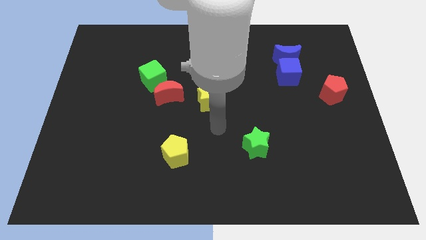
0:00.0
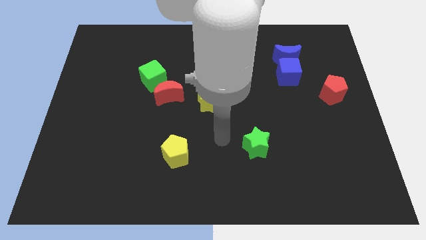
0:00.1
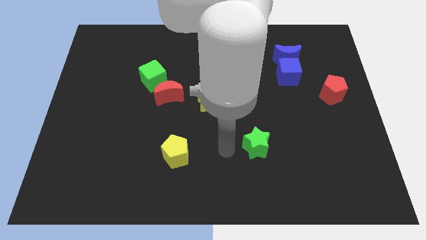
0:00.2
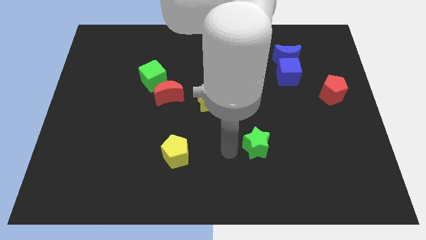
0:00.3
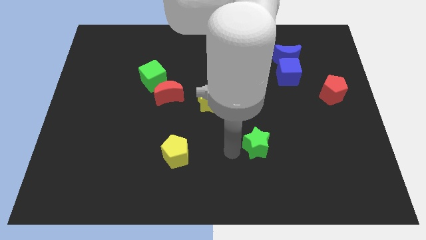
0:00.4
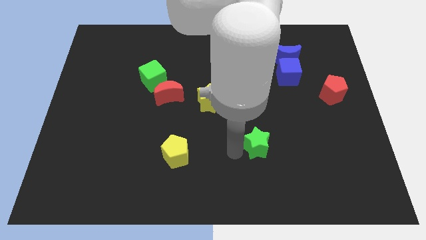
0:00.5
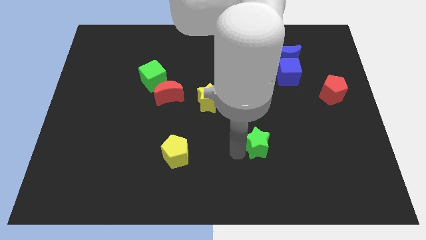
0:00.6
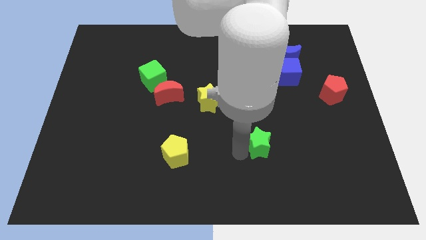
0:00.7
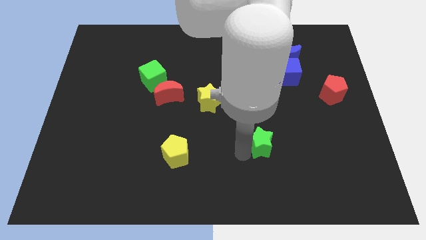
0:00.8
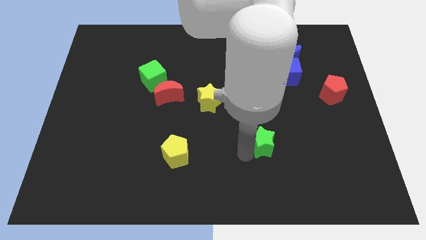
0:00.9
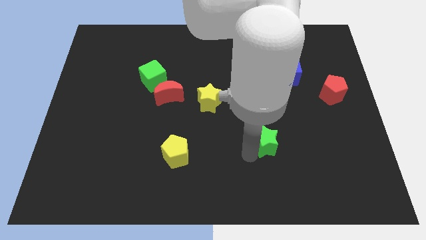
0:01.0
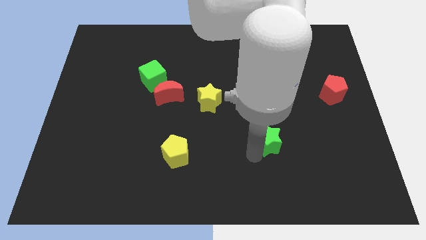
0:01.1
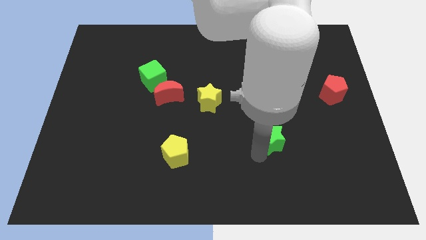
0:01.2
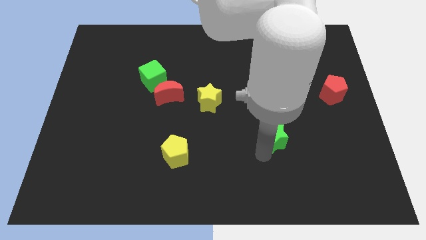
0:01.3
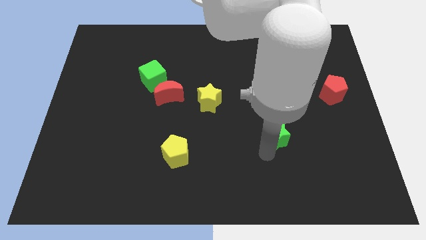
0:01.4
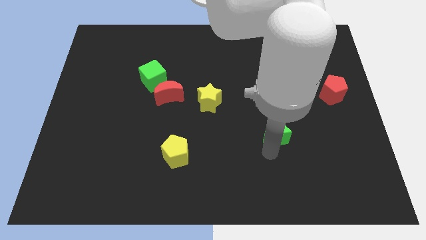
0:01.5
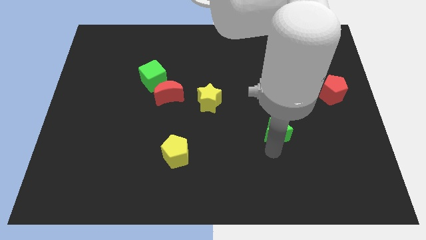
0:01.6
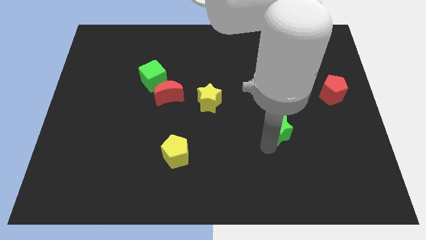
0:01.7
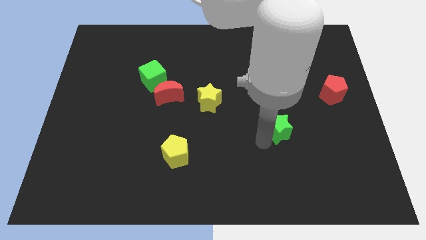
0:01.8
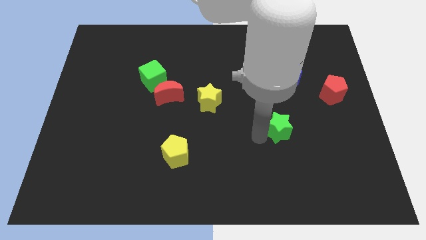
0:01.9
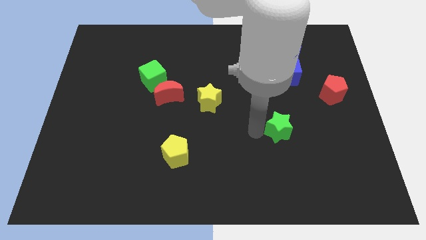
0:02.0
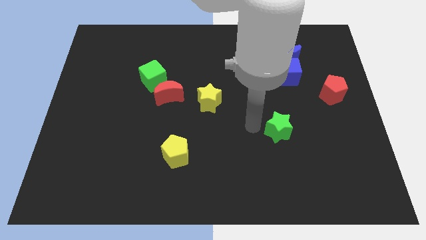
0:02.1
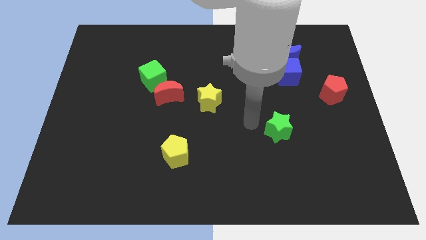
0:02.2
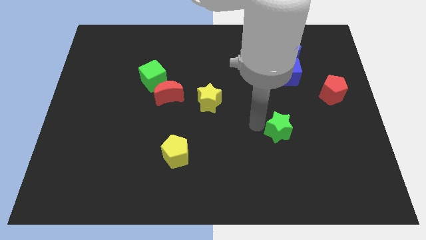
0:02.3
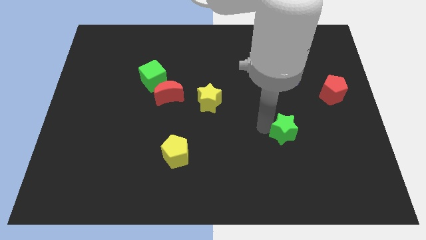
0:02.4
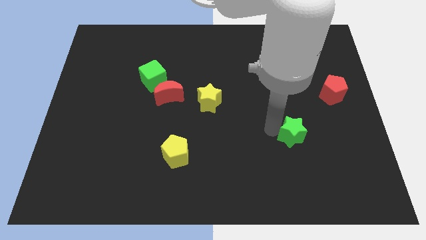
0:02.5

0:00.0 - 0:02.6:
push the green star to the right a little bit

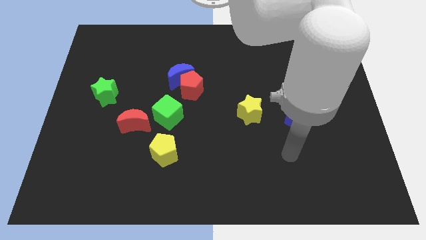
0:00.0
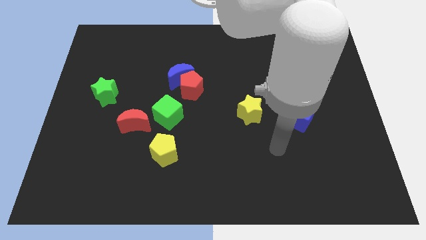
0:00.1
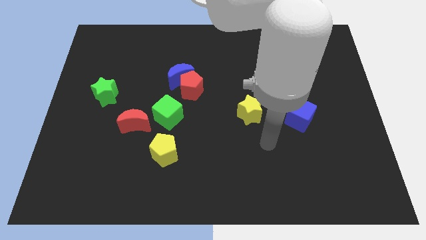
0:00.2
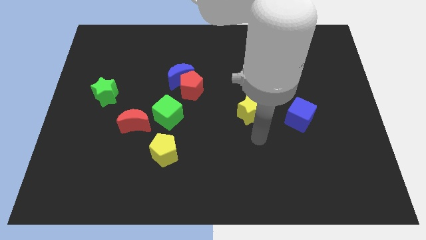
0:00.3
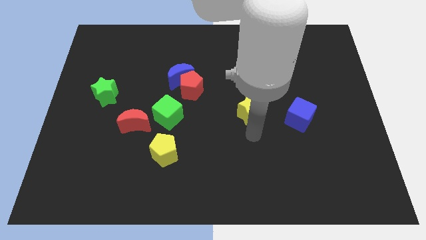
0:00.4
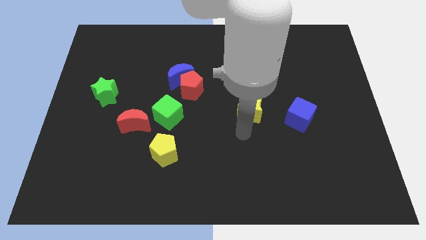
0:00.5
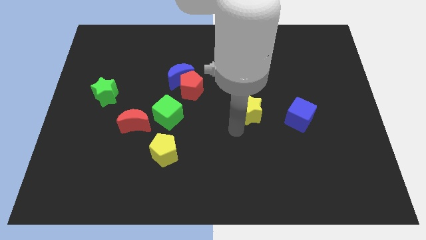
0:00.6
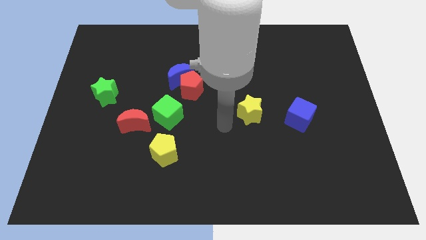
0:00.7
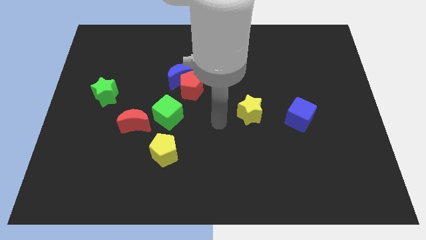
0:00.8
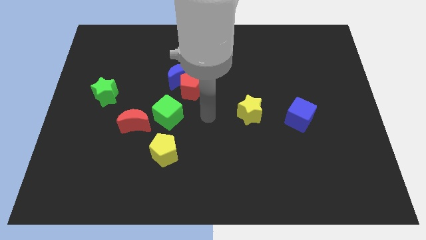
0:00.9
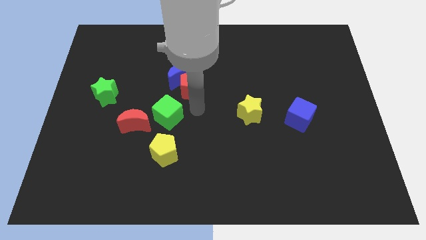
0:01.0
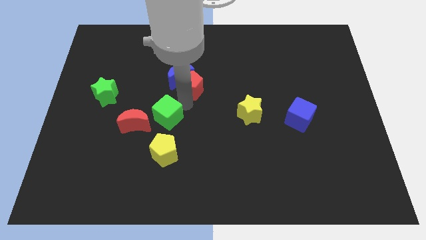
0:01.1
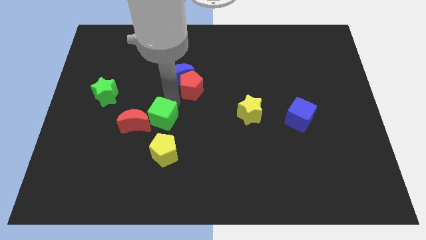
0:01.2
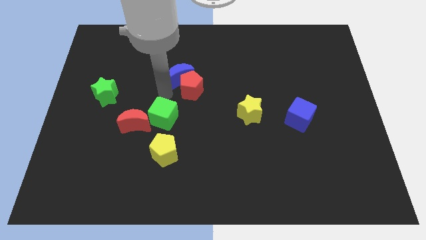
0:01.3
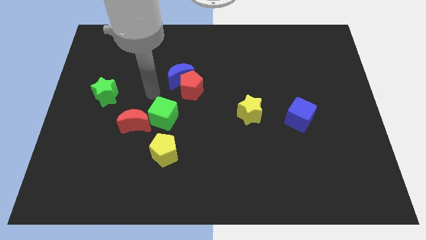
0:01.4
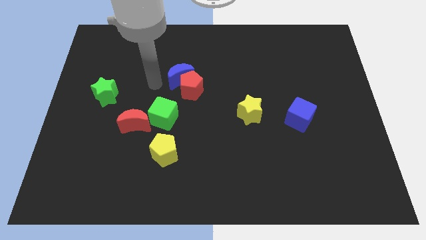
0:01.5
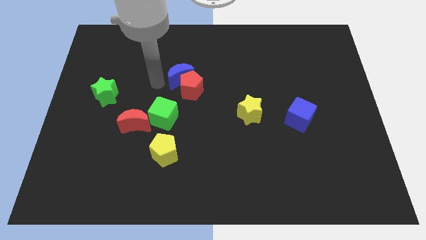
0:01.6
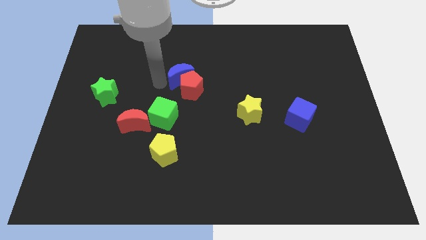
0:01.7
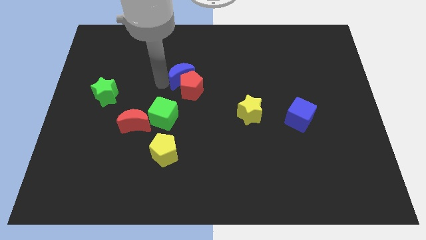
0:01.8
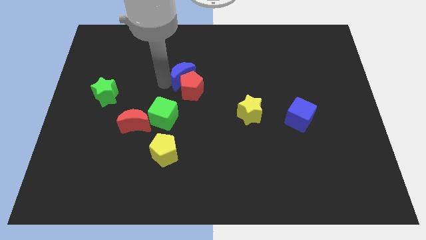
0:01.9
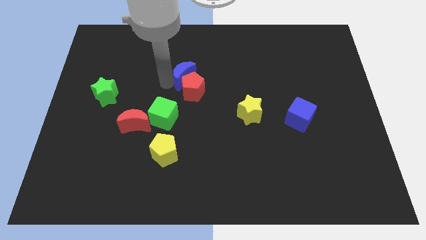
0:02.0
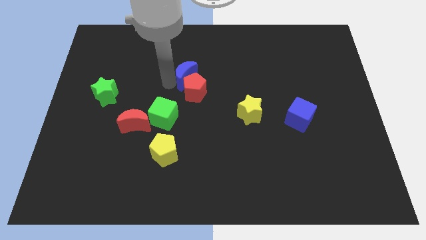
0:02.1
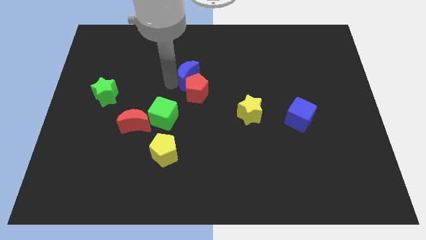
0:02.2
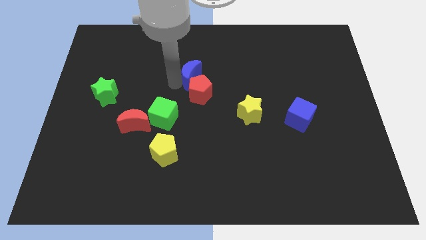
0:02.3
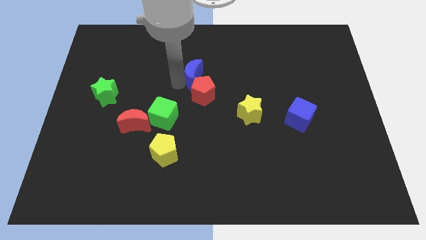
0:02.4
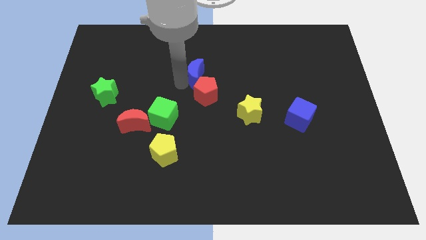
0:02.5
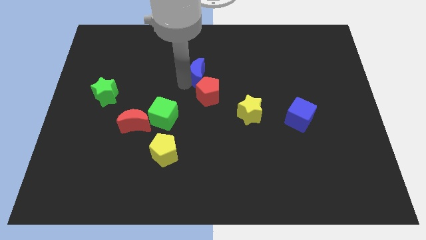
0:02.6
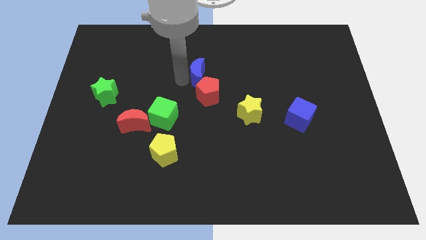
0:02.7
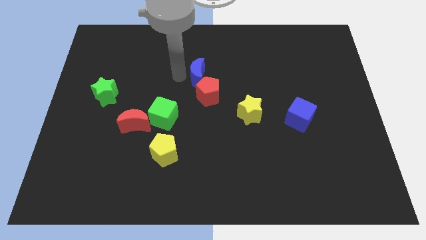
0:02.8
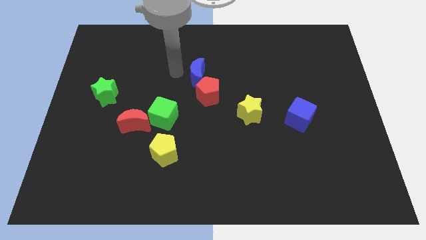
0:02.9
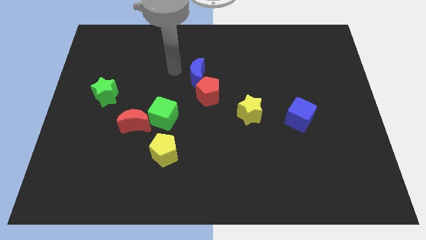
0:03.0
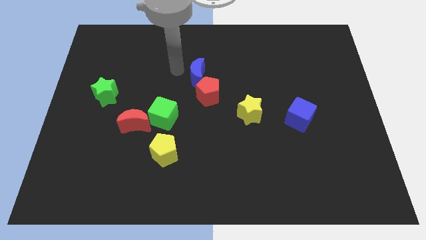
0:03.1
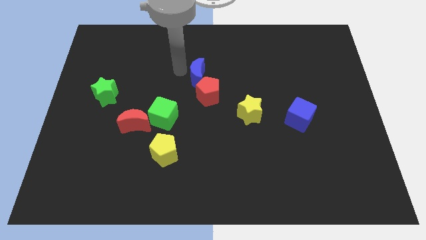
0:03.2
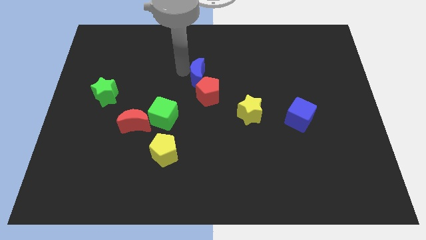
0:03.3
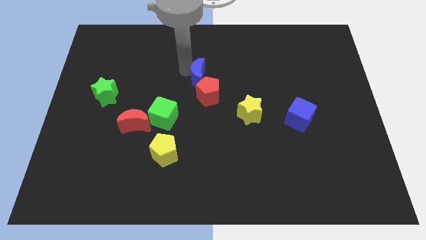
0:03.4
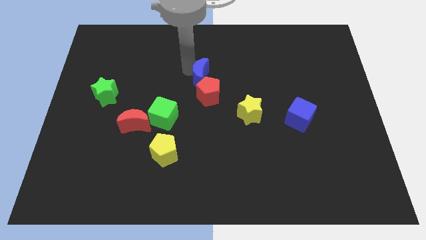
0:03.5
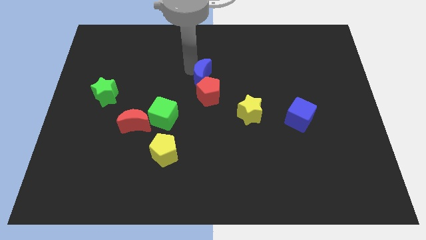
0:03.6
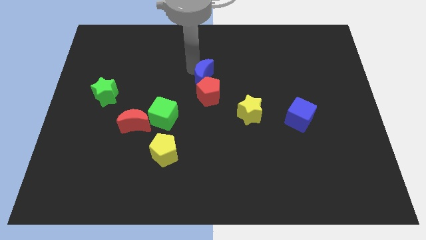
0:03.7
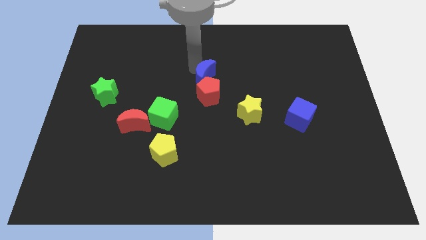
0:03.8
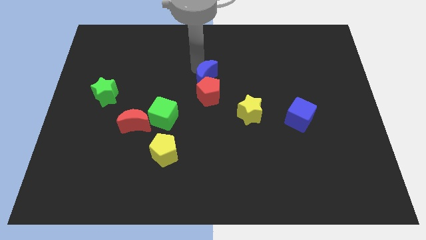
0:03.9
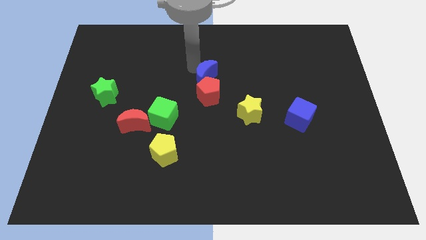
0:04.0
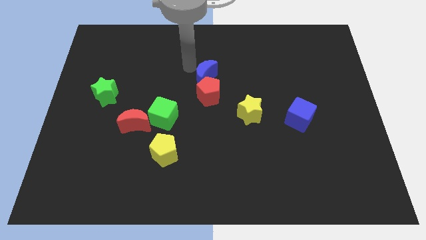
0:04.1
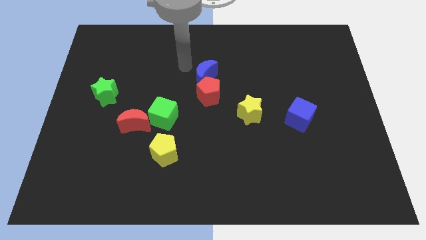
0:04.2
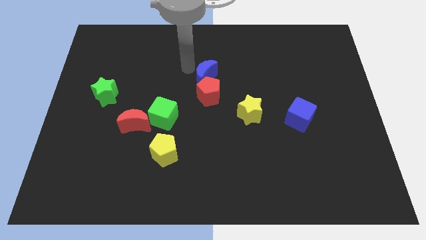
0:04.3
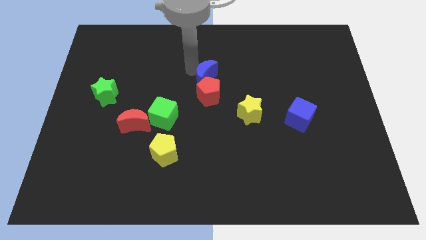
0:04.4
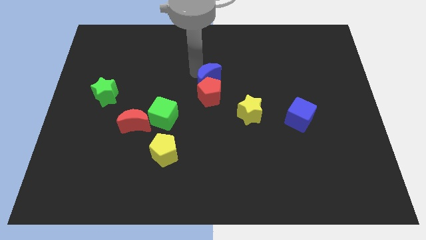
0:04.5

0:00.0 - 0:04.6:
slightly slide the blue moon right

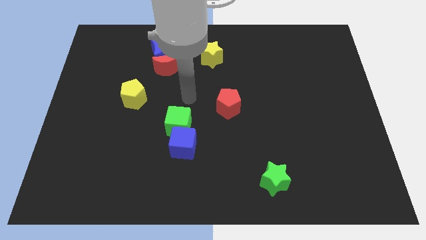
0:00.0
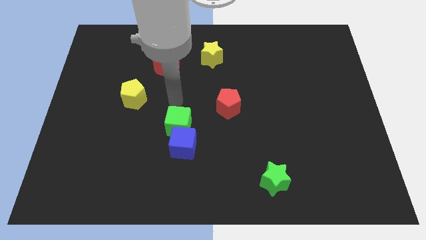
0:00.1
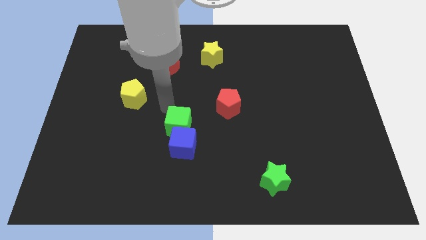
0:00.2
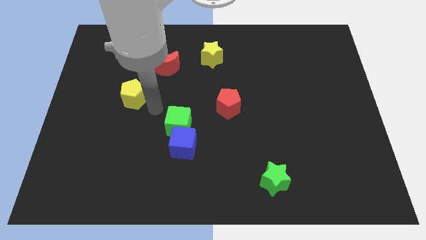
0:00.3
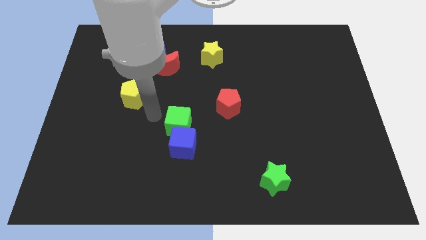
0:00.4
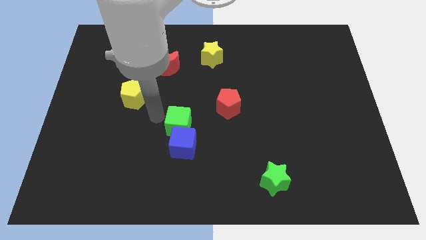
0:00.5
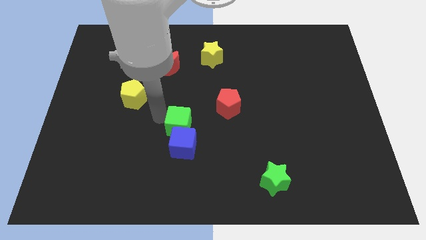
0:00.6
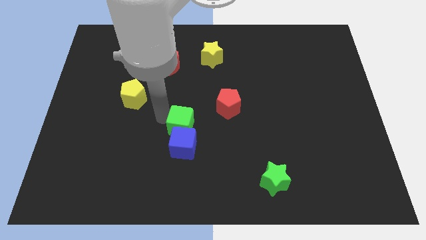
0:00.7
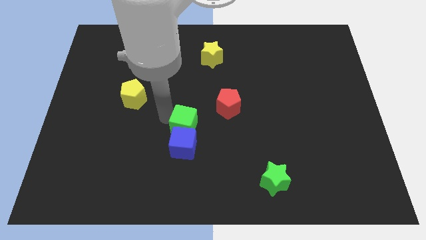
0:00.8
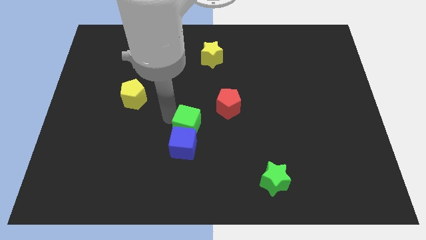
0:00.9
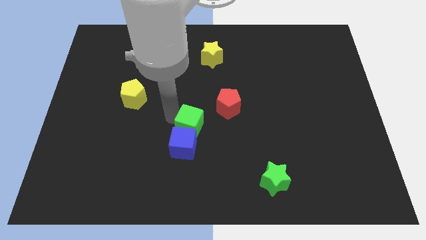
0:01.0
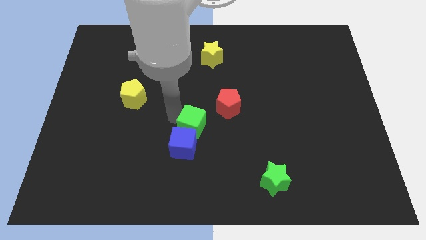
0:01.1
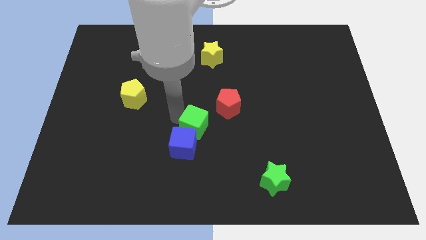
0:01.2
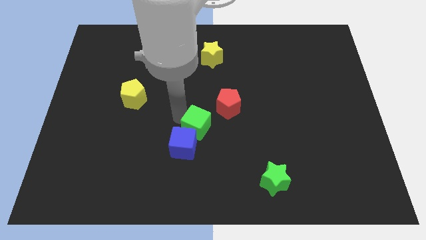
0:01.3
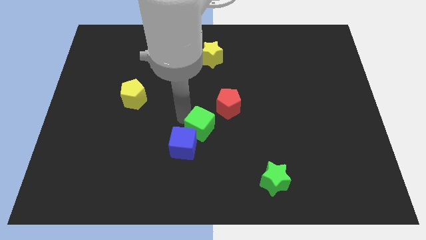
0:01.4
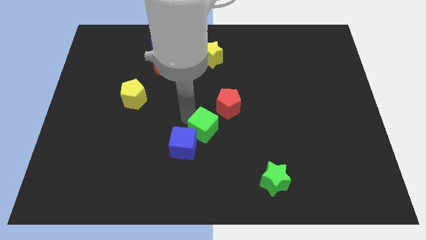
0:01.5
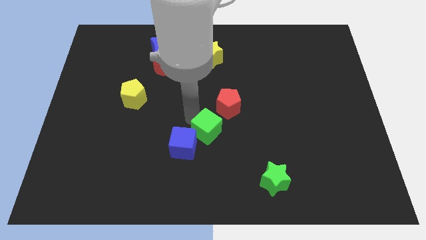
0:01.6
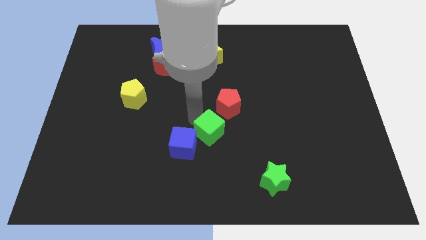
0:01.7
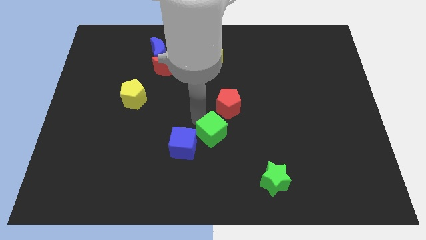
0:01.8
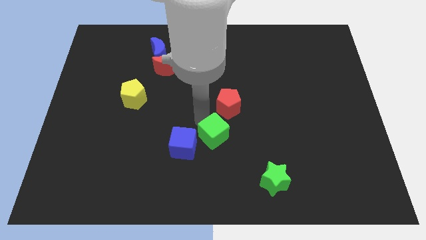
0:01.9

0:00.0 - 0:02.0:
push the green cube down and to the right diagonally a bit
